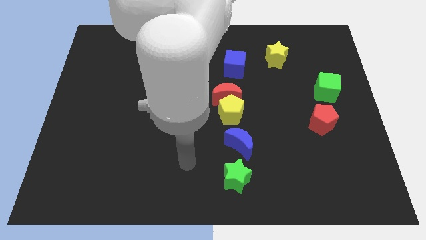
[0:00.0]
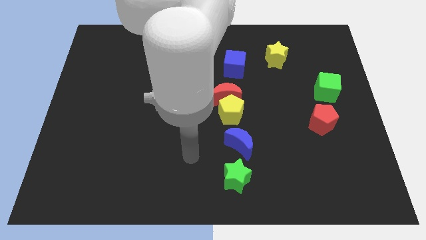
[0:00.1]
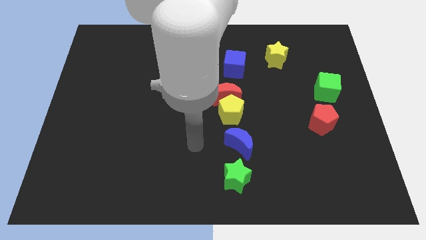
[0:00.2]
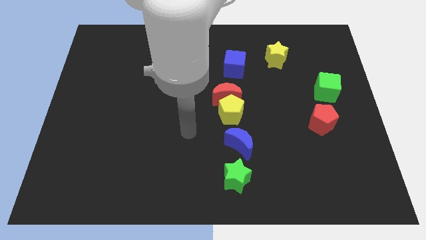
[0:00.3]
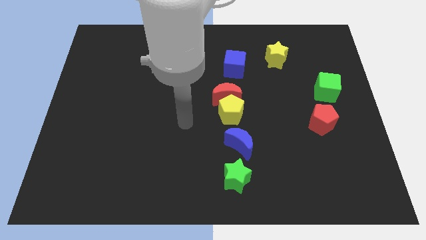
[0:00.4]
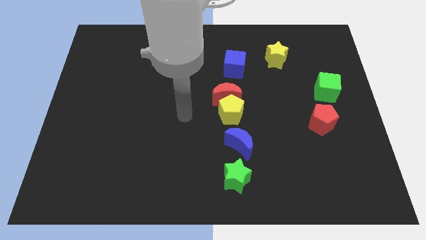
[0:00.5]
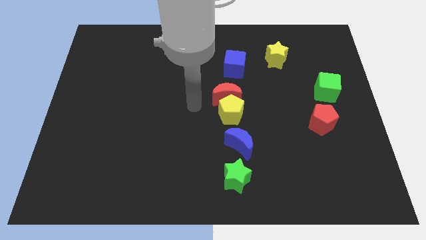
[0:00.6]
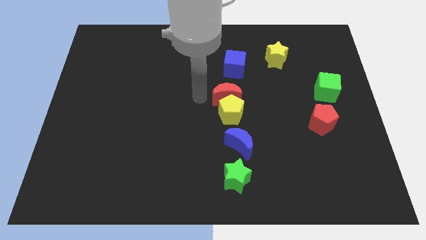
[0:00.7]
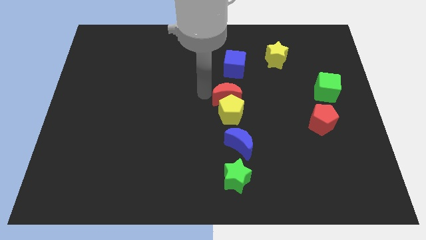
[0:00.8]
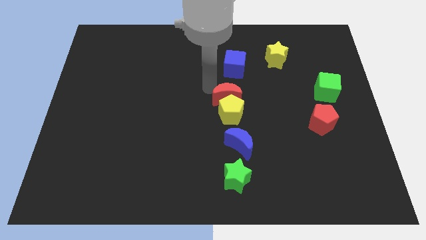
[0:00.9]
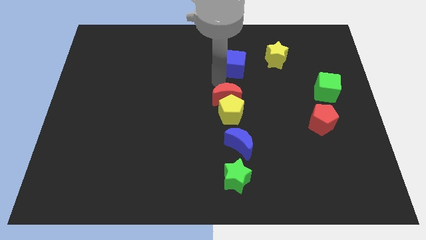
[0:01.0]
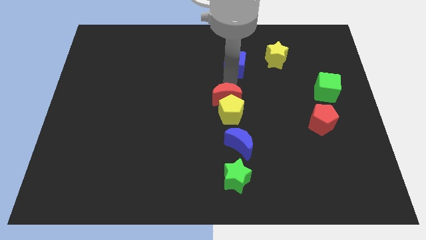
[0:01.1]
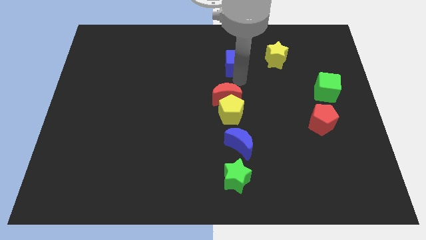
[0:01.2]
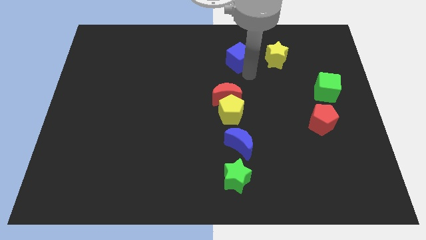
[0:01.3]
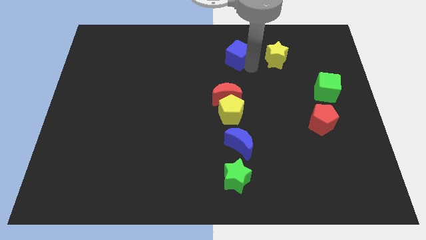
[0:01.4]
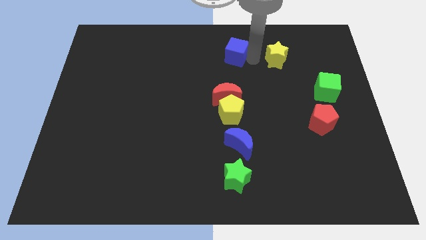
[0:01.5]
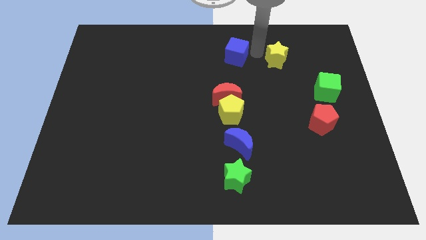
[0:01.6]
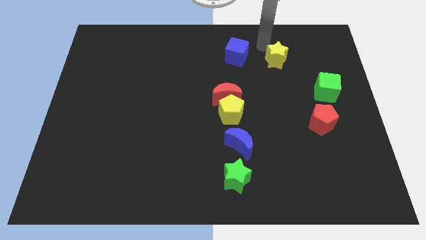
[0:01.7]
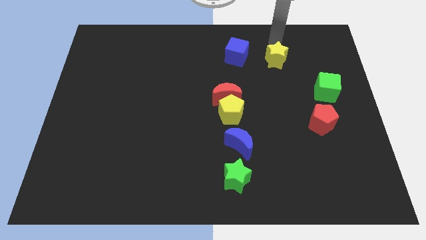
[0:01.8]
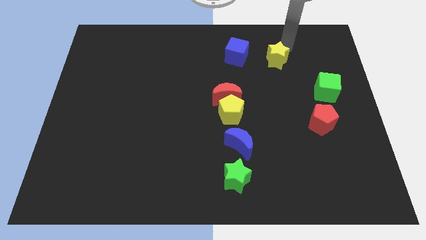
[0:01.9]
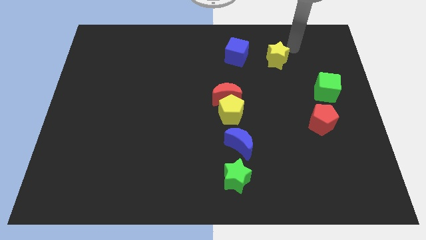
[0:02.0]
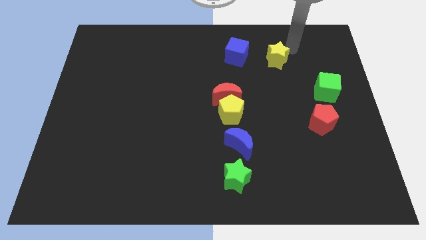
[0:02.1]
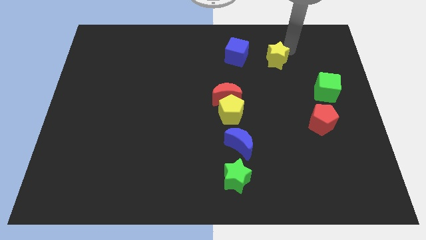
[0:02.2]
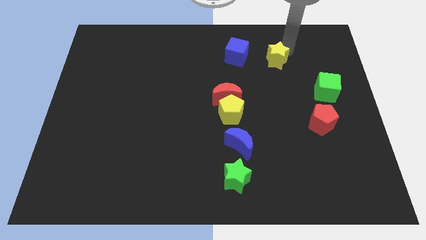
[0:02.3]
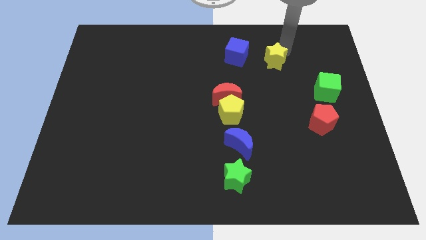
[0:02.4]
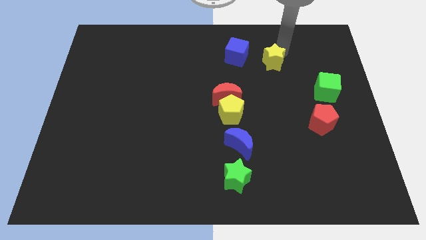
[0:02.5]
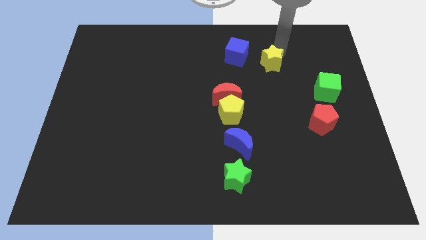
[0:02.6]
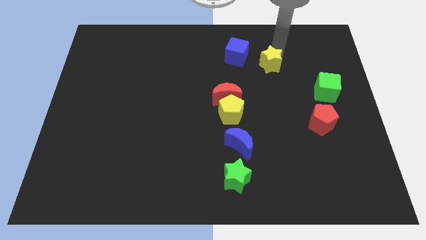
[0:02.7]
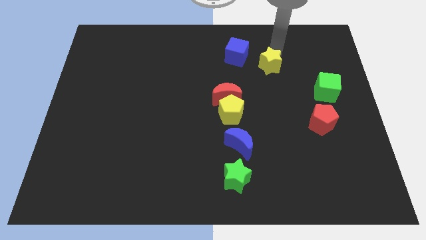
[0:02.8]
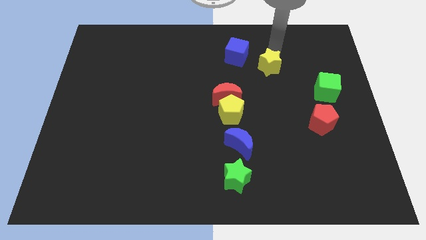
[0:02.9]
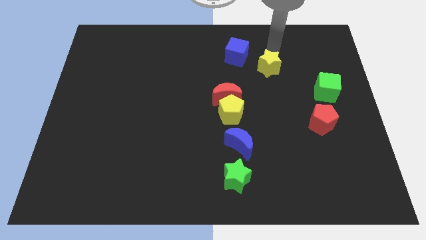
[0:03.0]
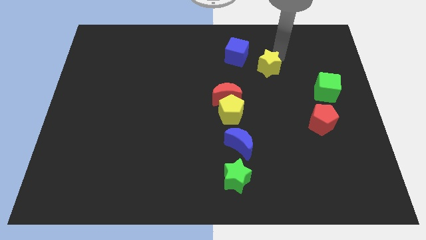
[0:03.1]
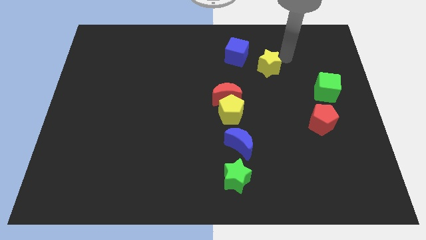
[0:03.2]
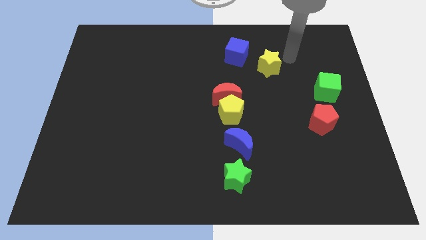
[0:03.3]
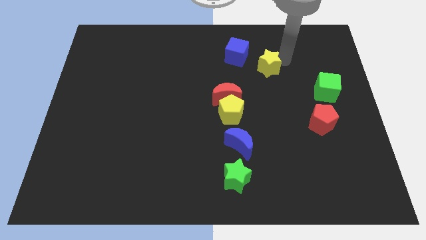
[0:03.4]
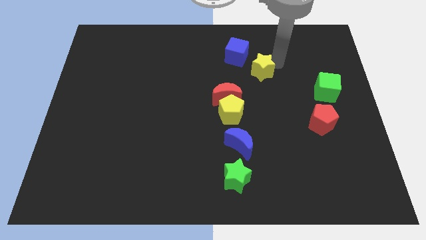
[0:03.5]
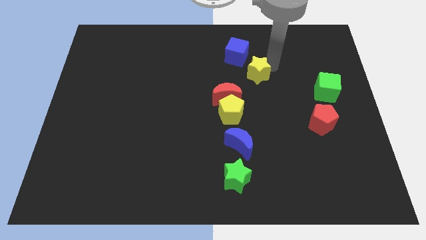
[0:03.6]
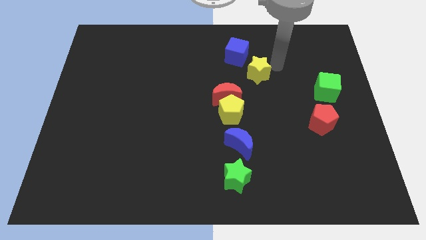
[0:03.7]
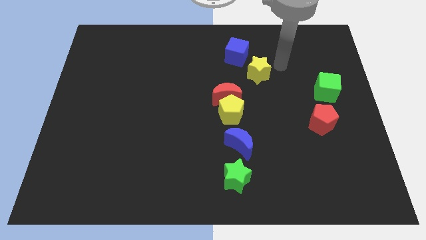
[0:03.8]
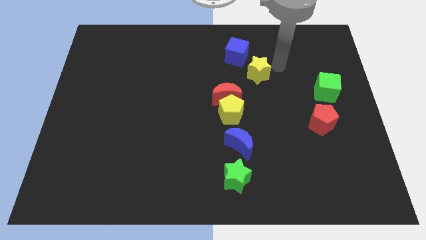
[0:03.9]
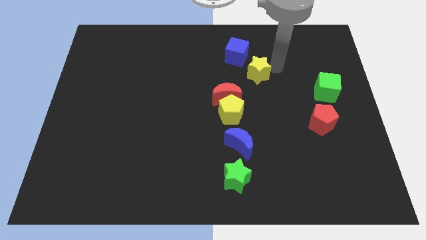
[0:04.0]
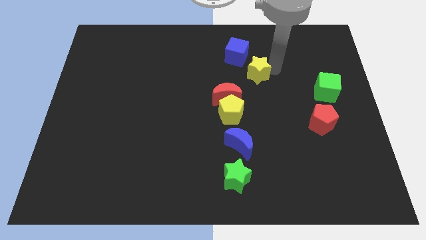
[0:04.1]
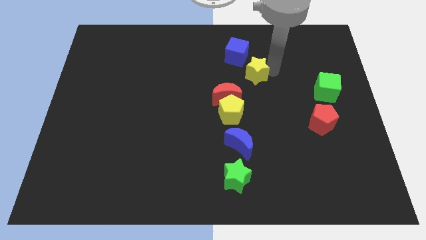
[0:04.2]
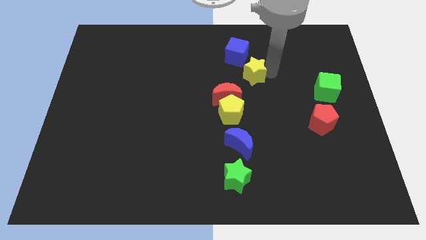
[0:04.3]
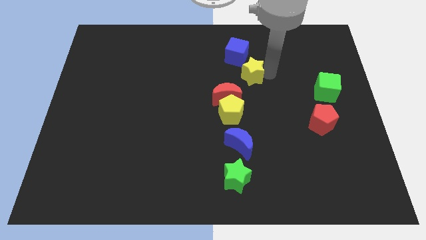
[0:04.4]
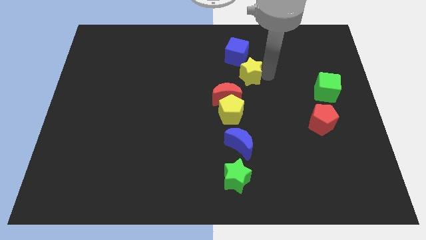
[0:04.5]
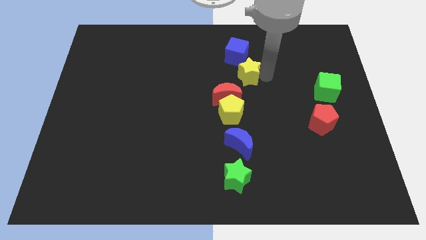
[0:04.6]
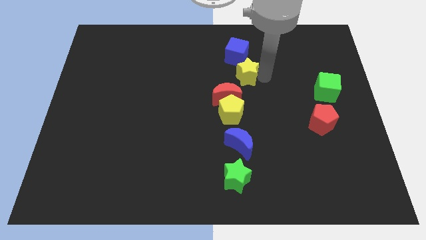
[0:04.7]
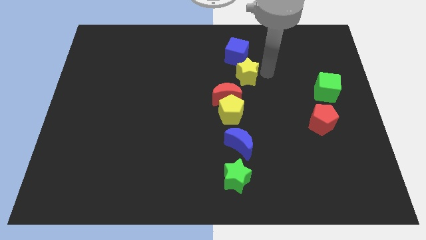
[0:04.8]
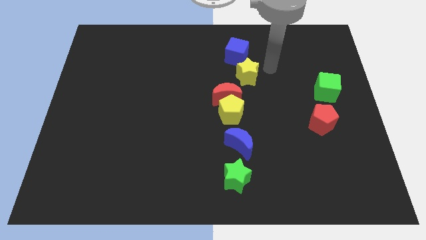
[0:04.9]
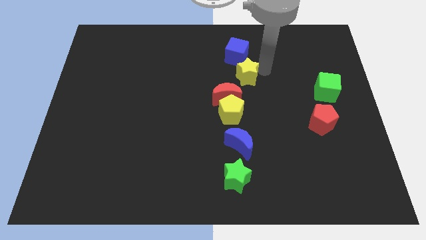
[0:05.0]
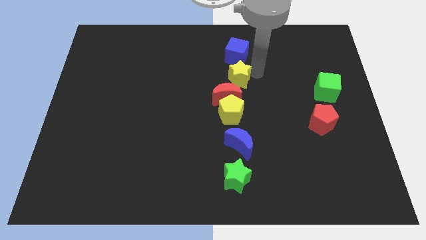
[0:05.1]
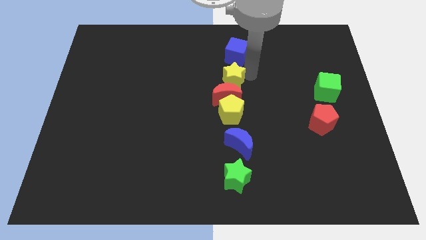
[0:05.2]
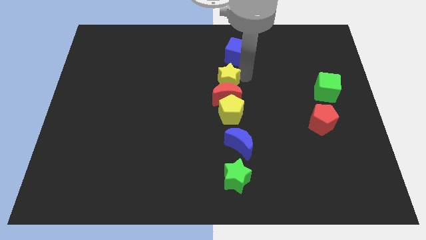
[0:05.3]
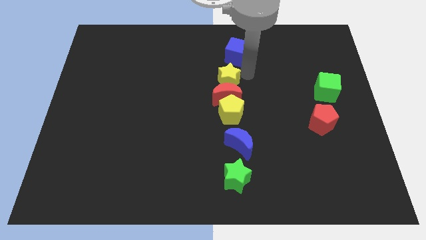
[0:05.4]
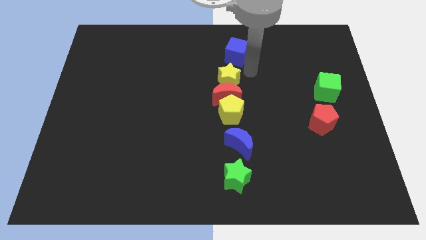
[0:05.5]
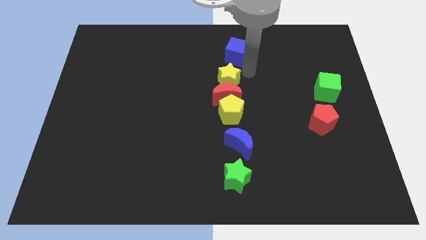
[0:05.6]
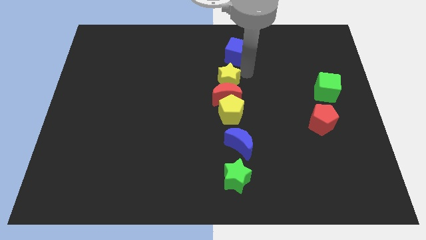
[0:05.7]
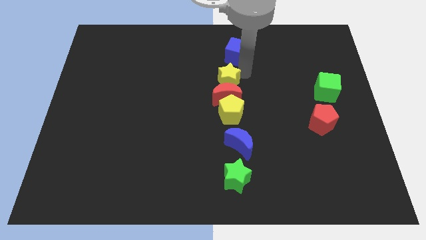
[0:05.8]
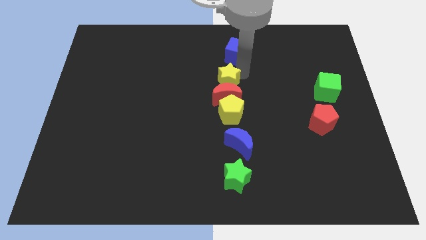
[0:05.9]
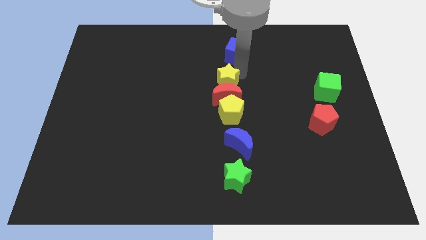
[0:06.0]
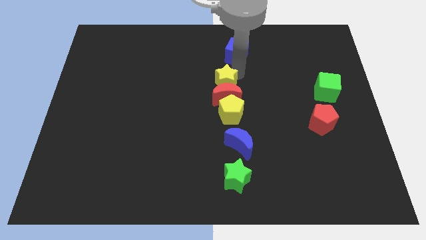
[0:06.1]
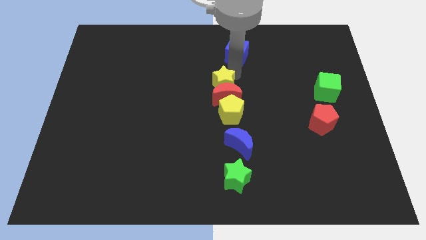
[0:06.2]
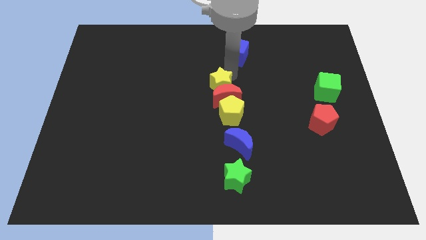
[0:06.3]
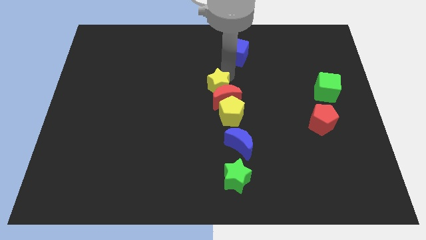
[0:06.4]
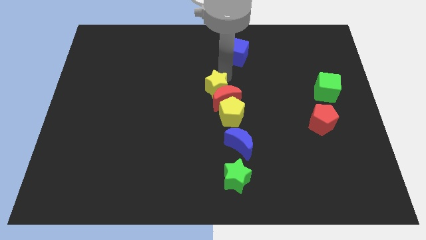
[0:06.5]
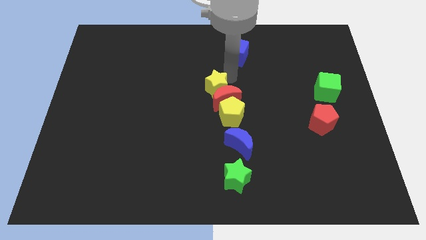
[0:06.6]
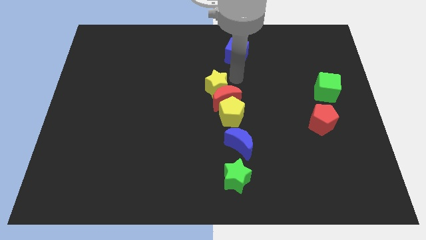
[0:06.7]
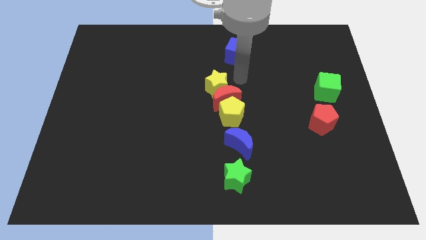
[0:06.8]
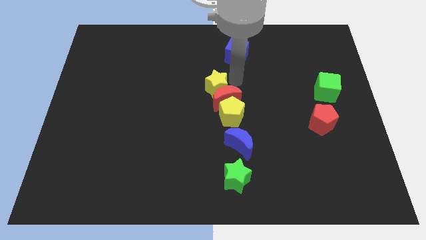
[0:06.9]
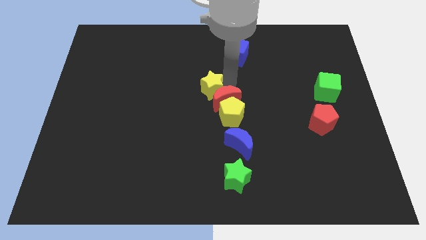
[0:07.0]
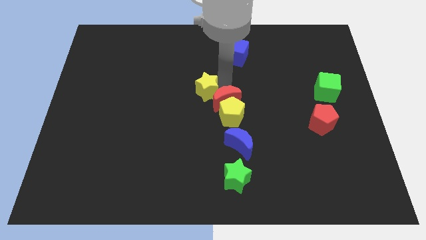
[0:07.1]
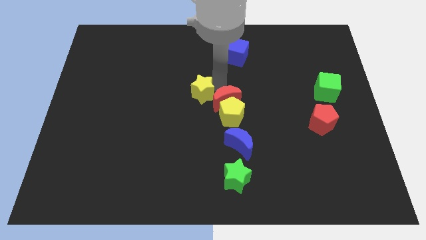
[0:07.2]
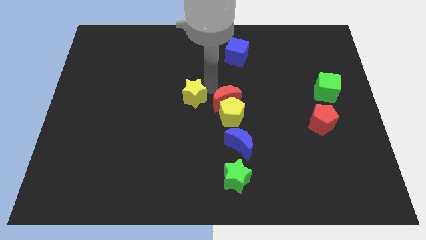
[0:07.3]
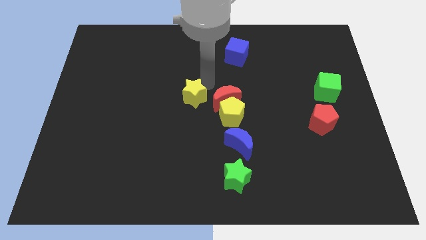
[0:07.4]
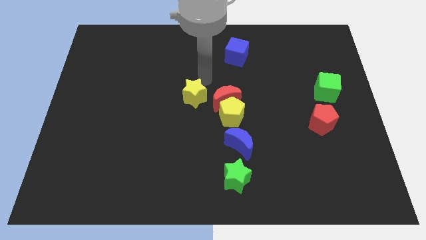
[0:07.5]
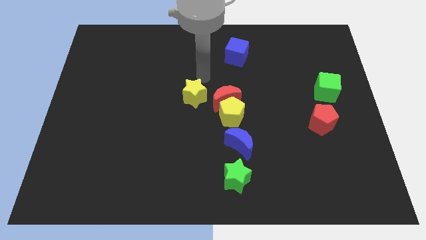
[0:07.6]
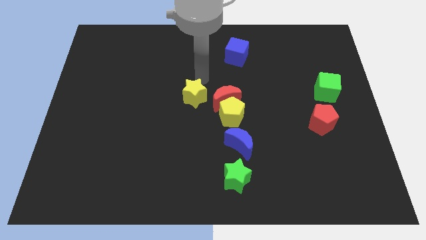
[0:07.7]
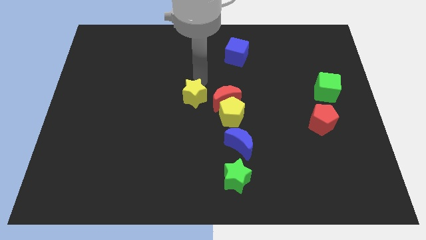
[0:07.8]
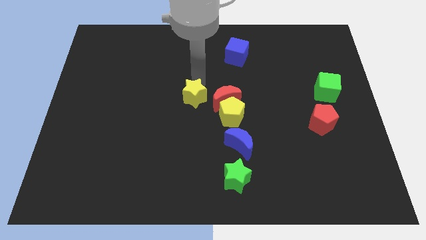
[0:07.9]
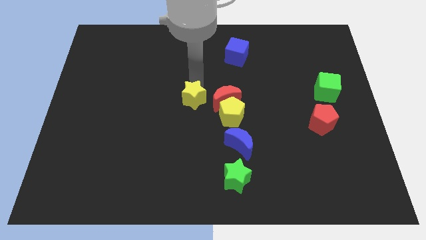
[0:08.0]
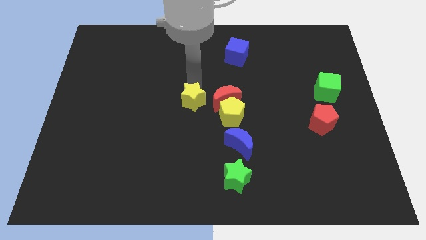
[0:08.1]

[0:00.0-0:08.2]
push the yellow star just left of the yellow pentagon
